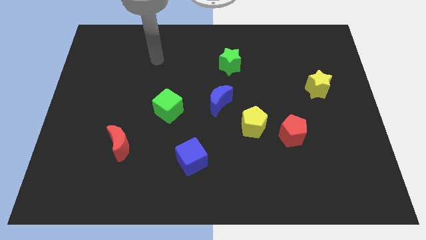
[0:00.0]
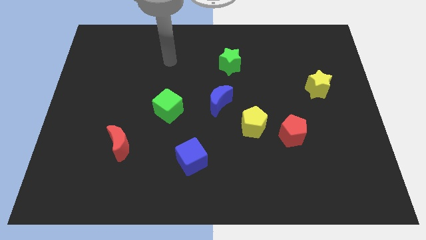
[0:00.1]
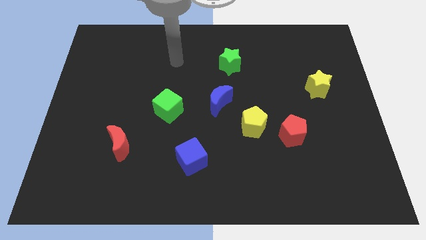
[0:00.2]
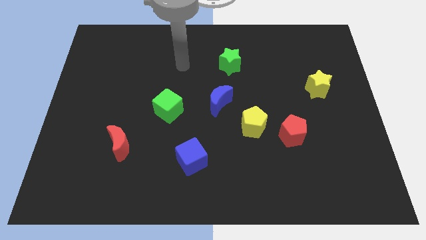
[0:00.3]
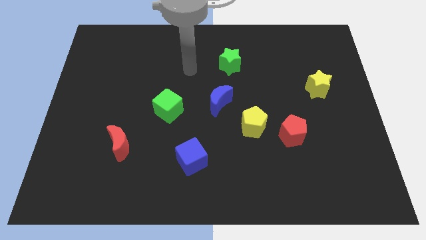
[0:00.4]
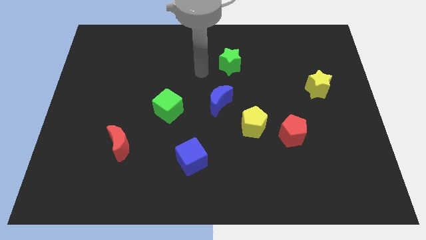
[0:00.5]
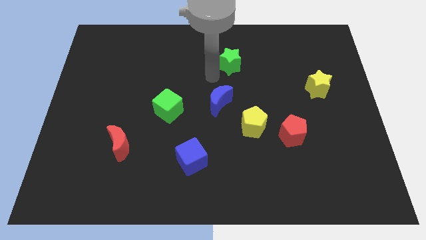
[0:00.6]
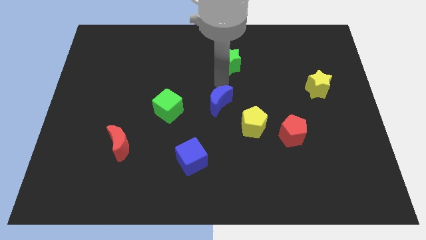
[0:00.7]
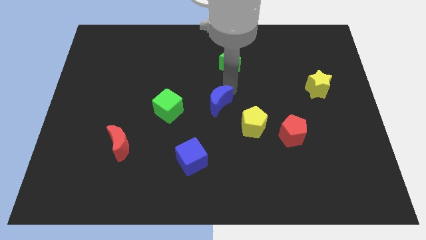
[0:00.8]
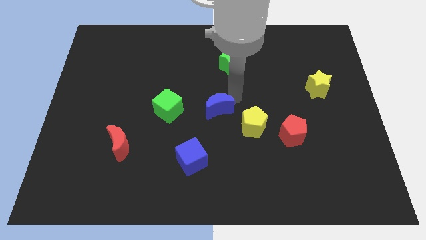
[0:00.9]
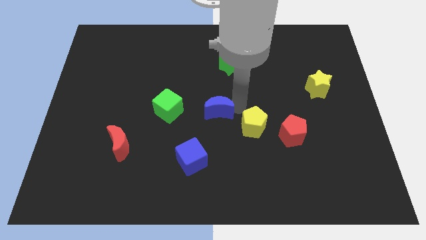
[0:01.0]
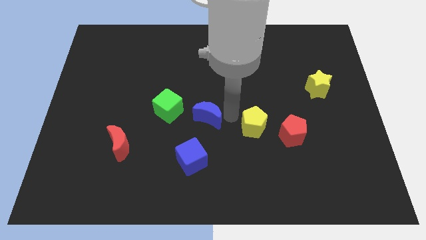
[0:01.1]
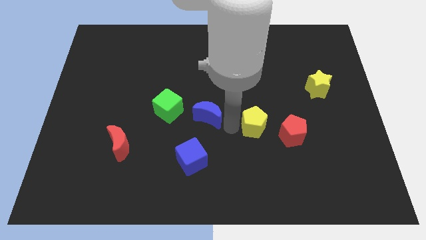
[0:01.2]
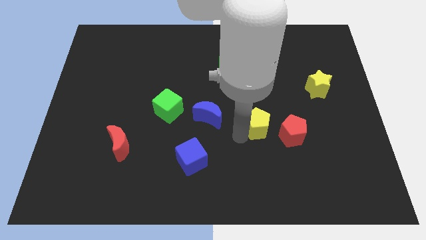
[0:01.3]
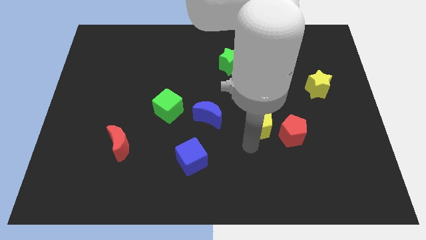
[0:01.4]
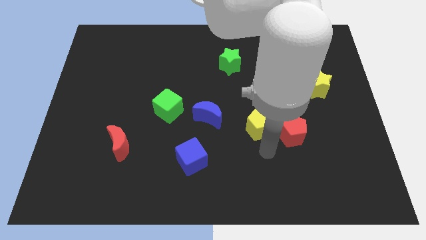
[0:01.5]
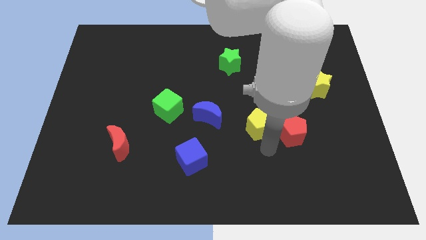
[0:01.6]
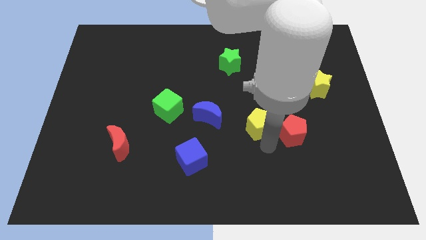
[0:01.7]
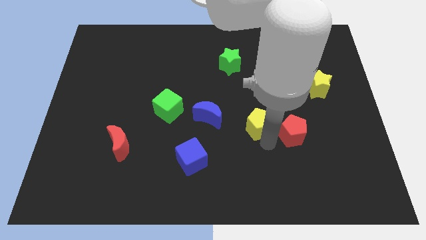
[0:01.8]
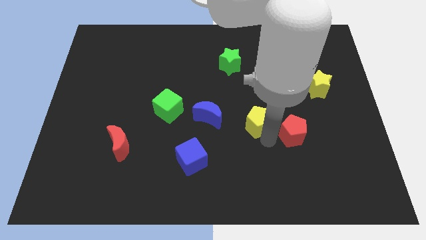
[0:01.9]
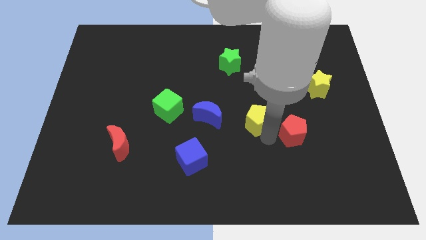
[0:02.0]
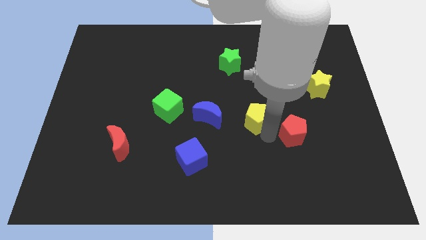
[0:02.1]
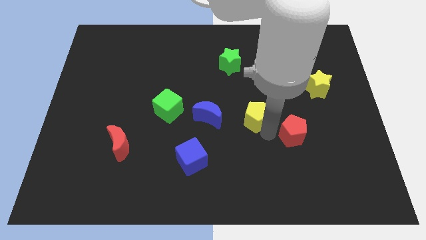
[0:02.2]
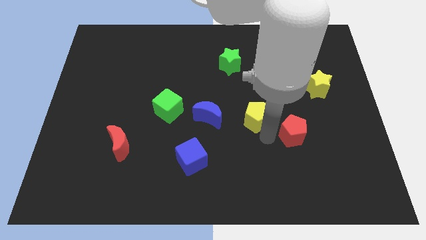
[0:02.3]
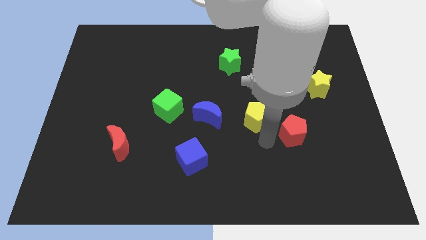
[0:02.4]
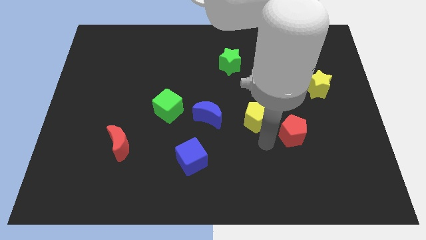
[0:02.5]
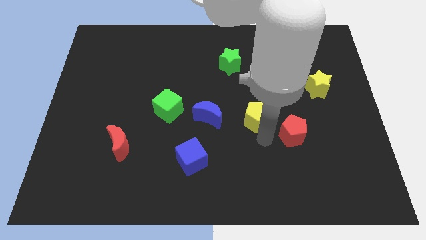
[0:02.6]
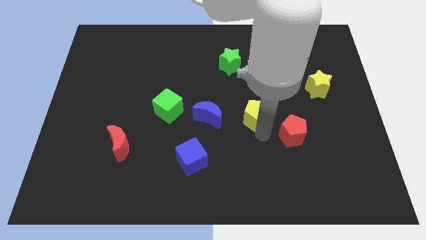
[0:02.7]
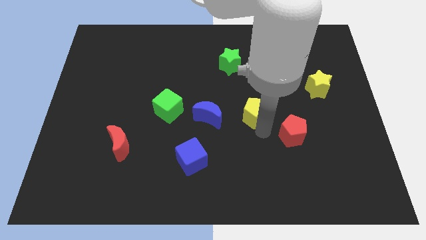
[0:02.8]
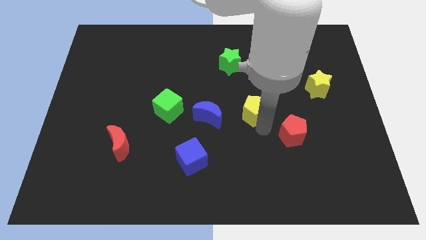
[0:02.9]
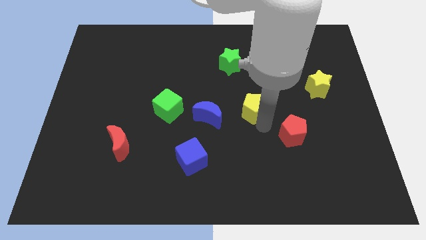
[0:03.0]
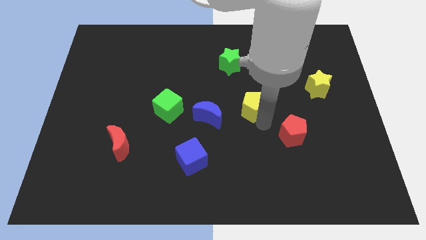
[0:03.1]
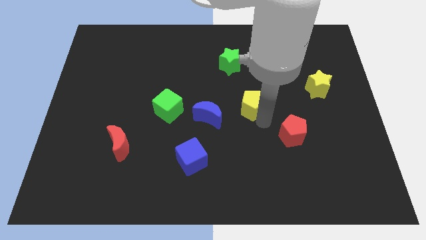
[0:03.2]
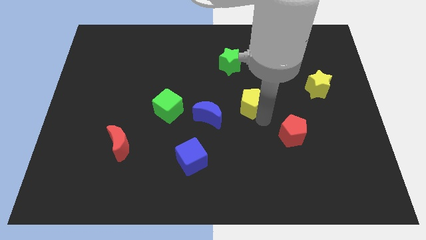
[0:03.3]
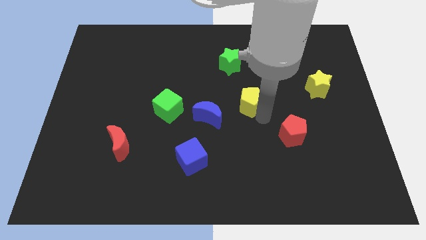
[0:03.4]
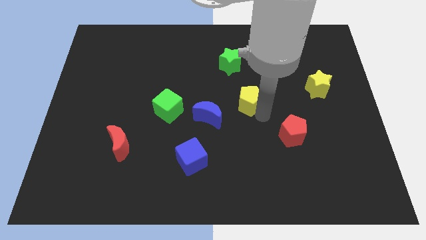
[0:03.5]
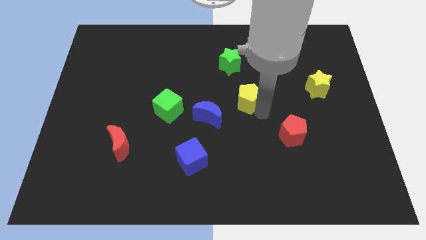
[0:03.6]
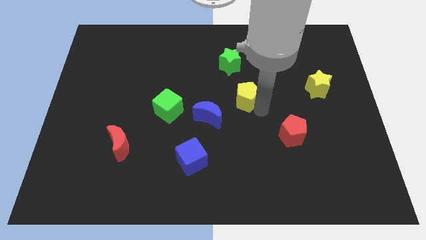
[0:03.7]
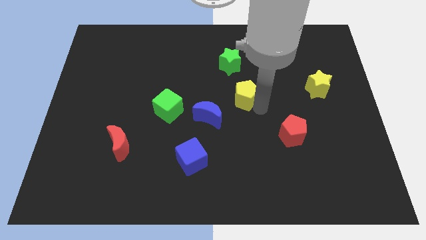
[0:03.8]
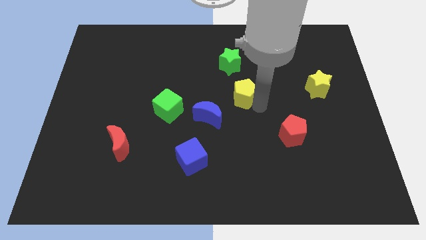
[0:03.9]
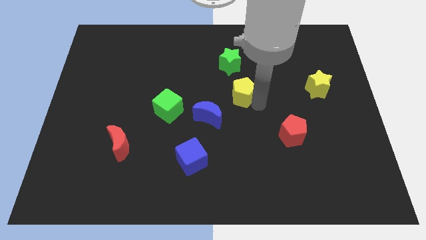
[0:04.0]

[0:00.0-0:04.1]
move the yellow pentagon a little bit up and to the left diagonally

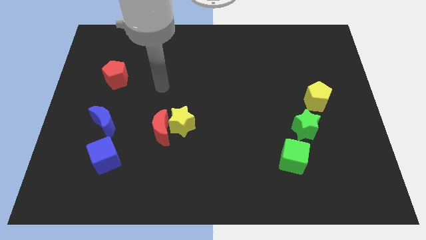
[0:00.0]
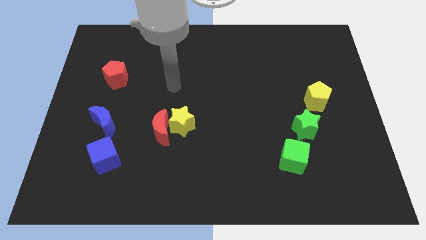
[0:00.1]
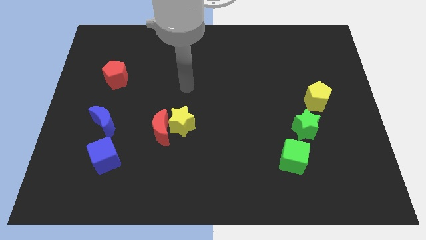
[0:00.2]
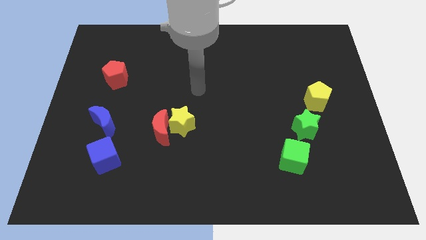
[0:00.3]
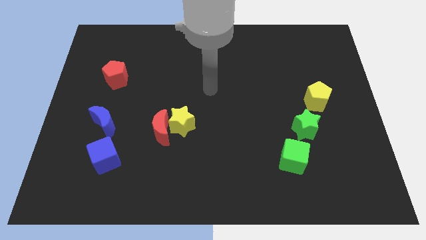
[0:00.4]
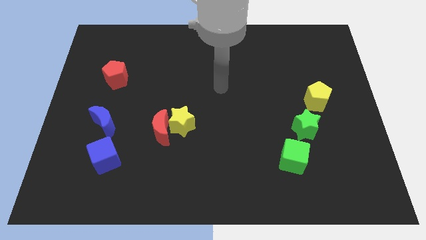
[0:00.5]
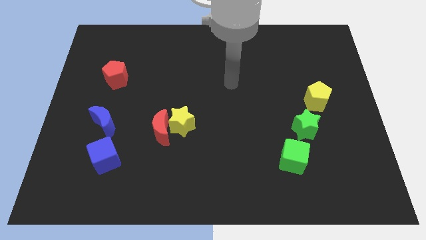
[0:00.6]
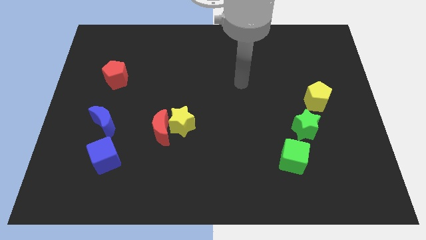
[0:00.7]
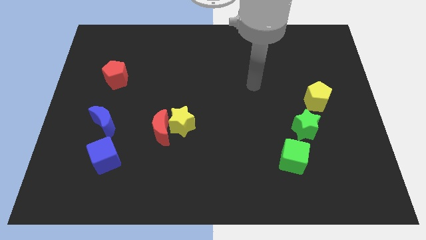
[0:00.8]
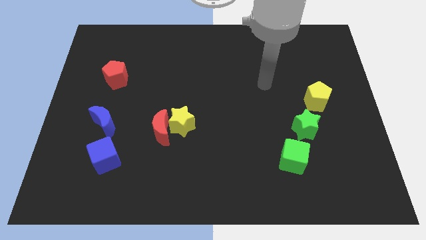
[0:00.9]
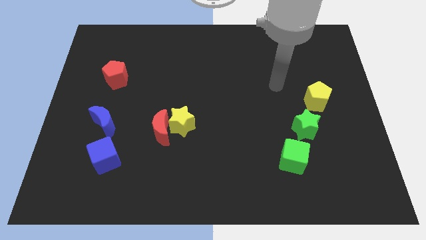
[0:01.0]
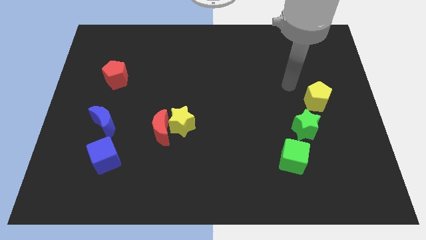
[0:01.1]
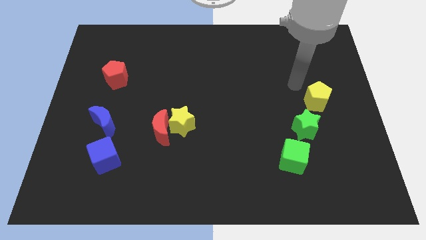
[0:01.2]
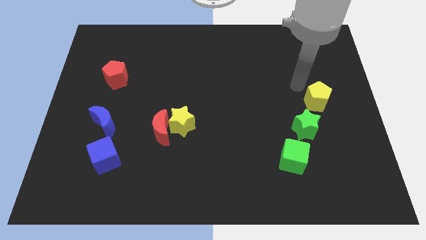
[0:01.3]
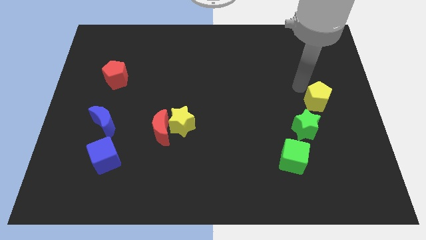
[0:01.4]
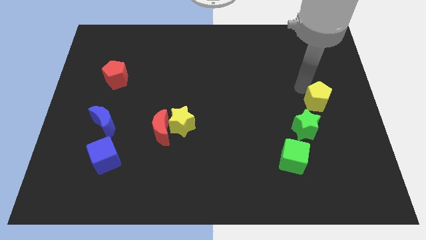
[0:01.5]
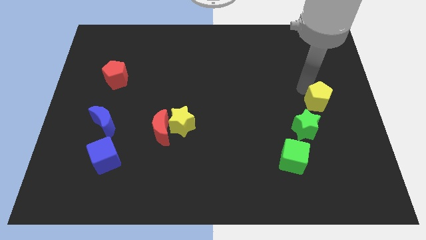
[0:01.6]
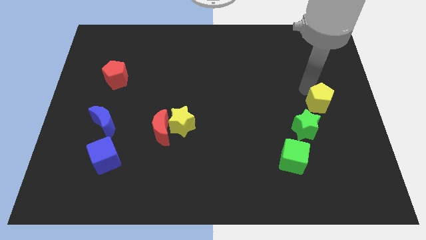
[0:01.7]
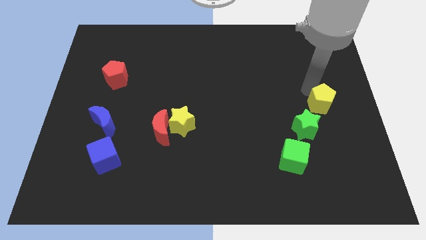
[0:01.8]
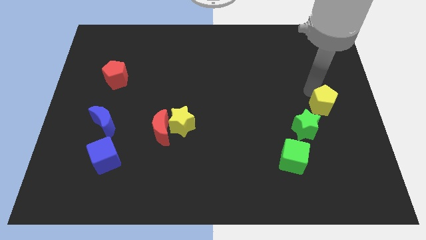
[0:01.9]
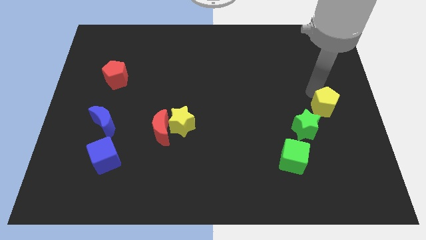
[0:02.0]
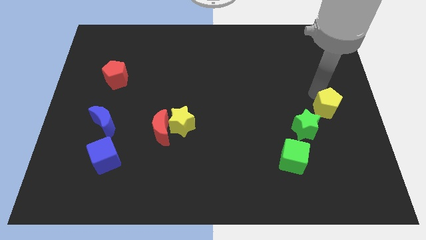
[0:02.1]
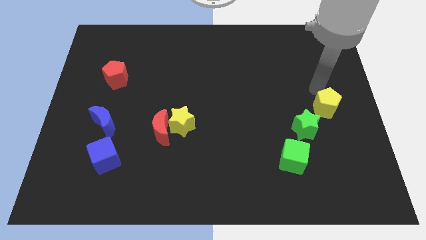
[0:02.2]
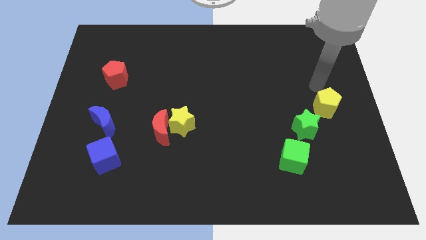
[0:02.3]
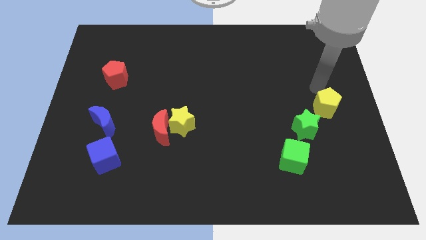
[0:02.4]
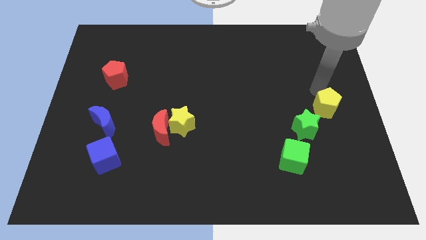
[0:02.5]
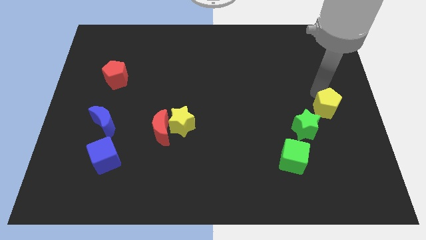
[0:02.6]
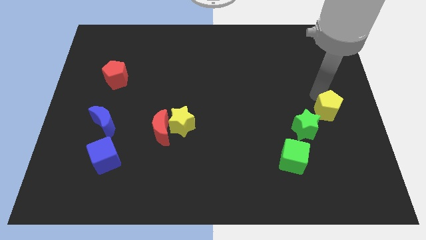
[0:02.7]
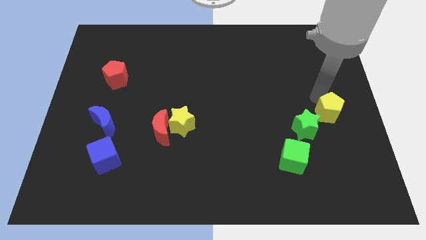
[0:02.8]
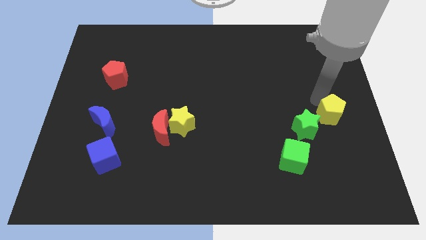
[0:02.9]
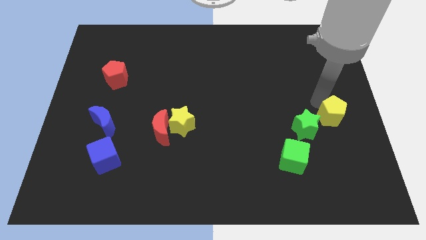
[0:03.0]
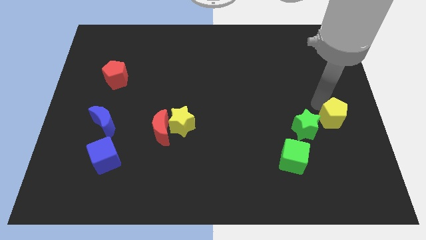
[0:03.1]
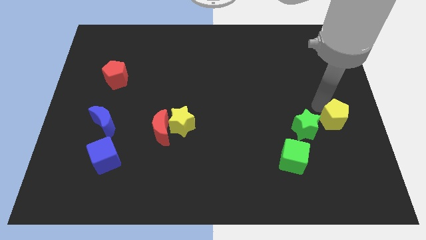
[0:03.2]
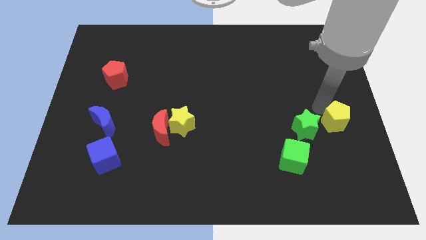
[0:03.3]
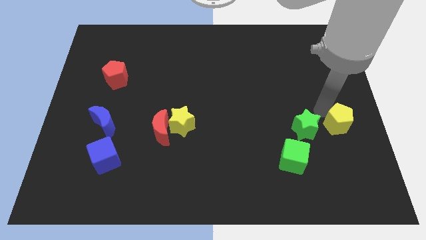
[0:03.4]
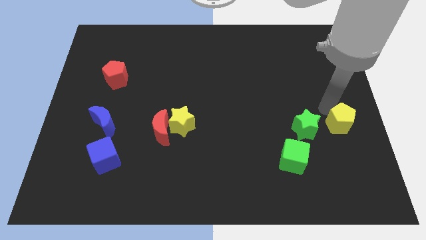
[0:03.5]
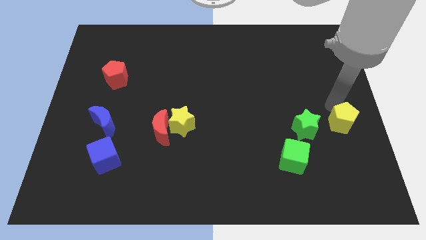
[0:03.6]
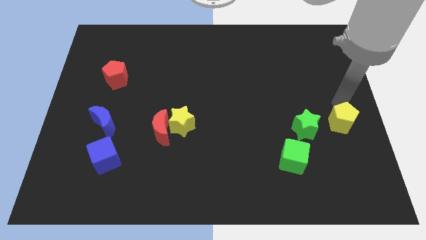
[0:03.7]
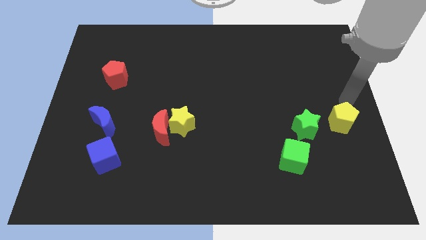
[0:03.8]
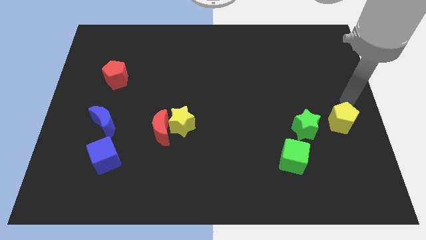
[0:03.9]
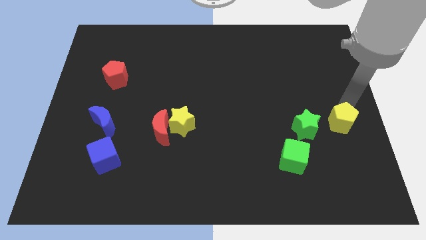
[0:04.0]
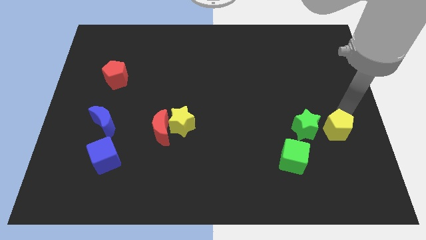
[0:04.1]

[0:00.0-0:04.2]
slightly push the yellow pentagon downwards
